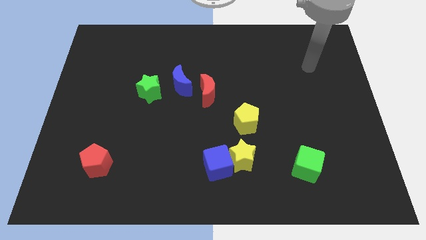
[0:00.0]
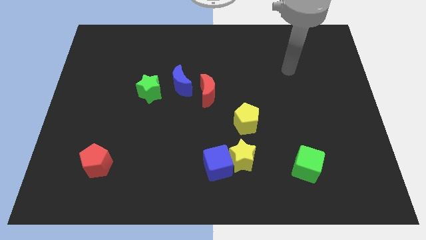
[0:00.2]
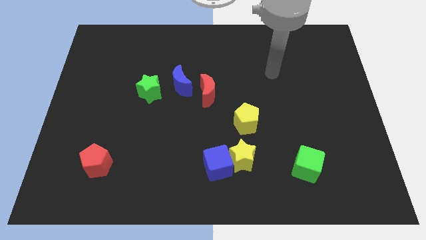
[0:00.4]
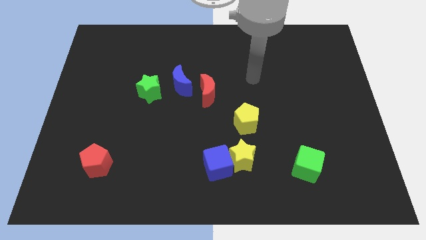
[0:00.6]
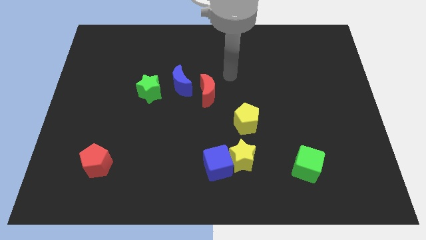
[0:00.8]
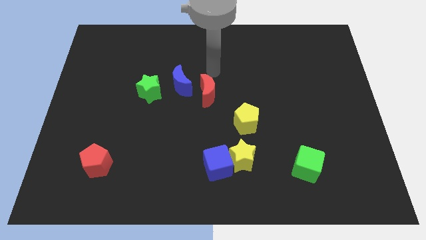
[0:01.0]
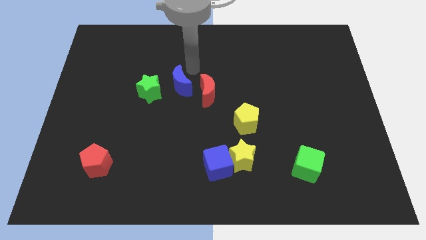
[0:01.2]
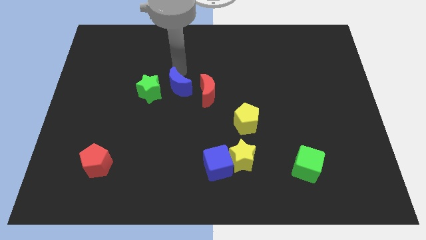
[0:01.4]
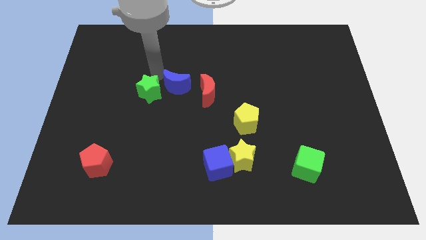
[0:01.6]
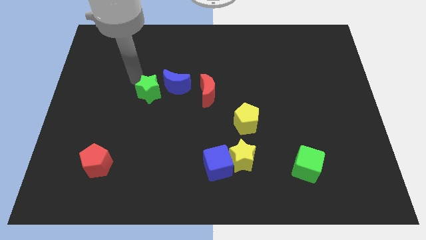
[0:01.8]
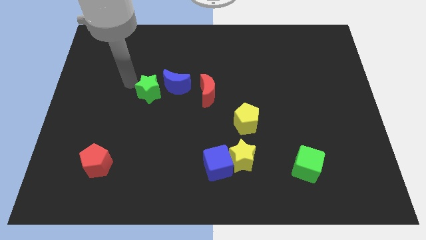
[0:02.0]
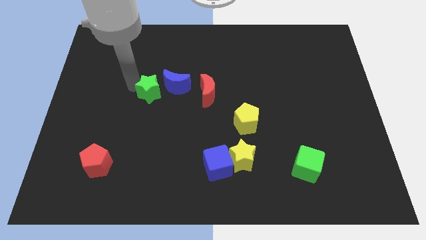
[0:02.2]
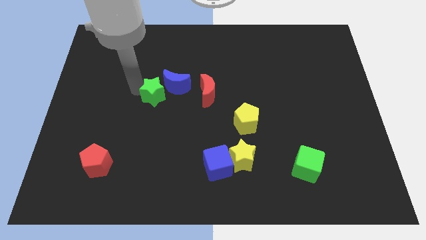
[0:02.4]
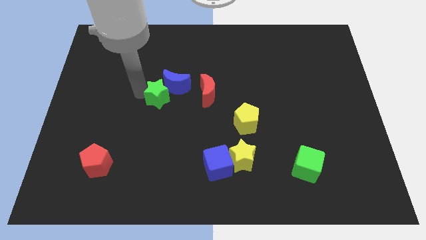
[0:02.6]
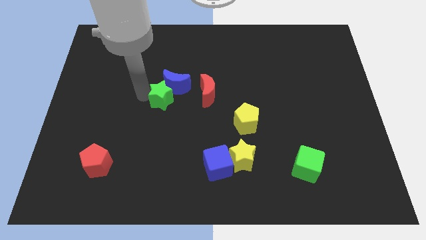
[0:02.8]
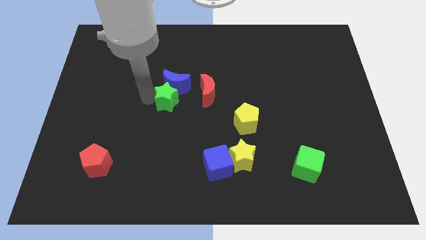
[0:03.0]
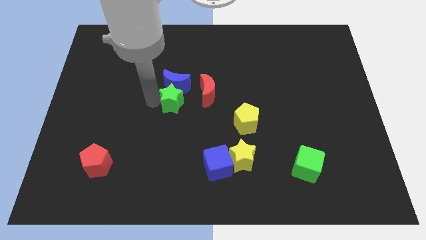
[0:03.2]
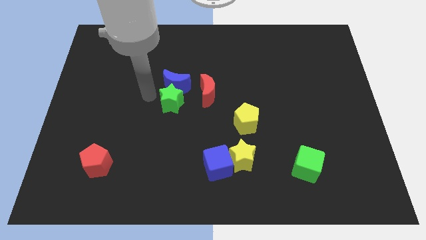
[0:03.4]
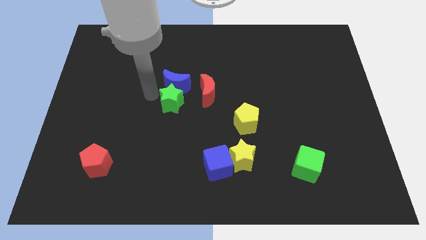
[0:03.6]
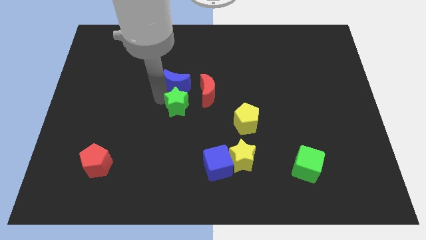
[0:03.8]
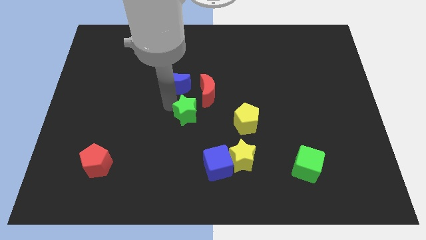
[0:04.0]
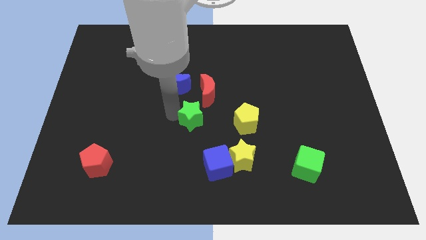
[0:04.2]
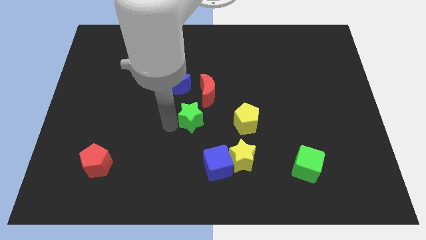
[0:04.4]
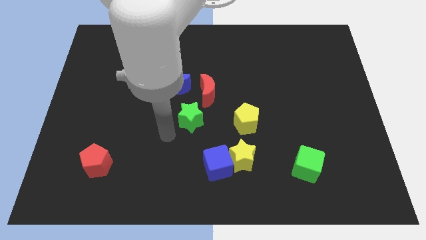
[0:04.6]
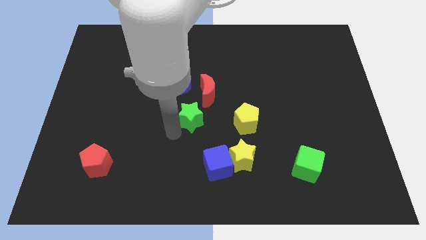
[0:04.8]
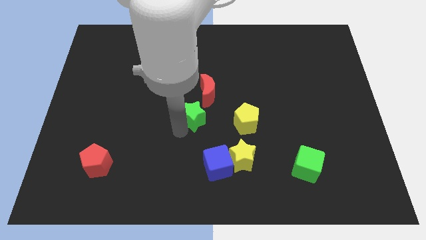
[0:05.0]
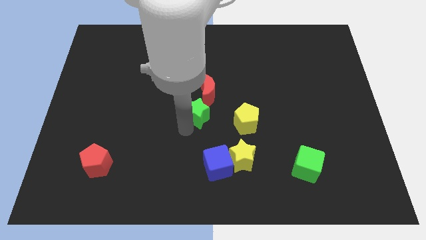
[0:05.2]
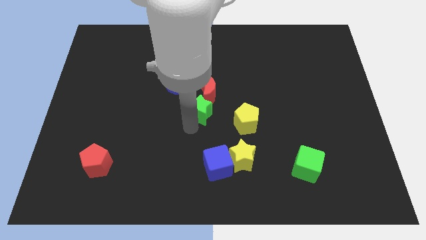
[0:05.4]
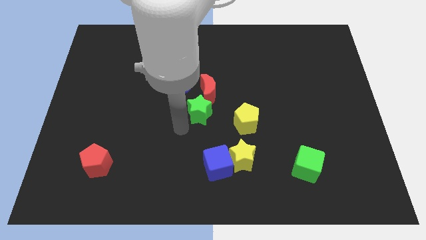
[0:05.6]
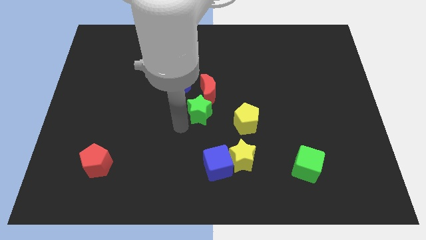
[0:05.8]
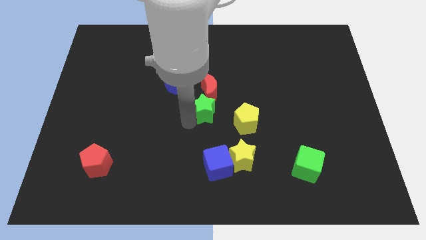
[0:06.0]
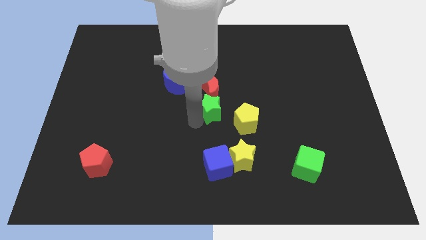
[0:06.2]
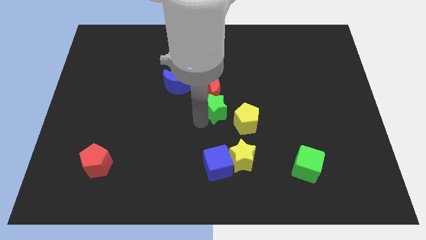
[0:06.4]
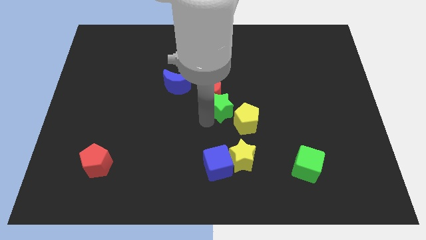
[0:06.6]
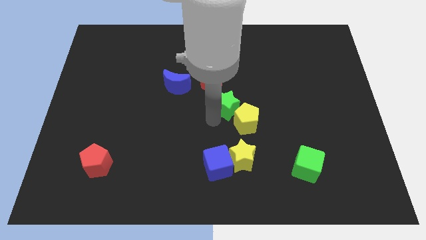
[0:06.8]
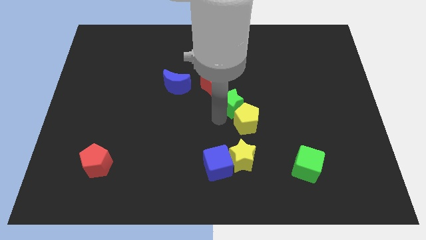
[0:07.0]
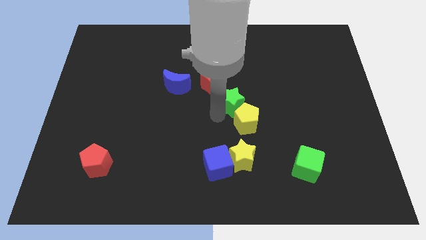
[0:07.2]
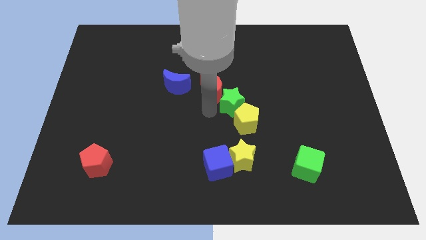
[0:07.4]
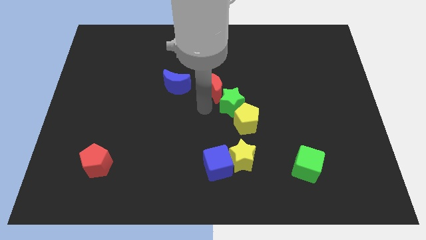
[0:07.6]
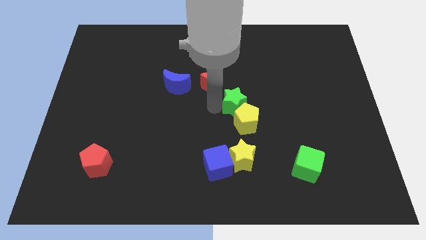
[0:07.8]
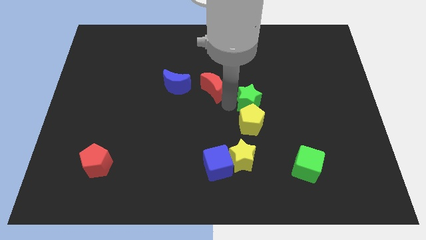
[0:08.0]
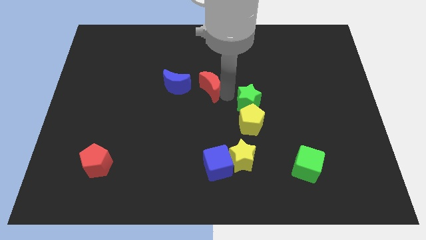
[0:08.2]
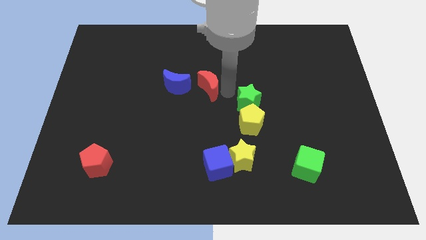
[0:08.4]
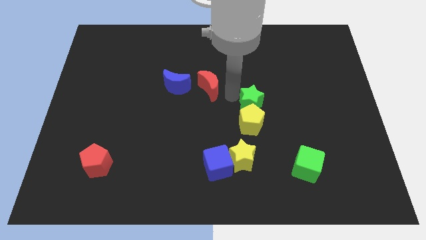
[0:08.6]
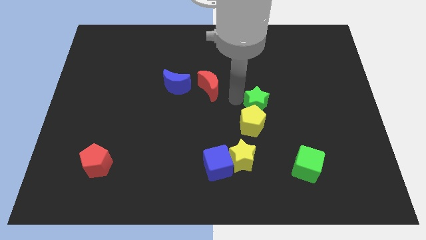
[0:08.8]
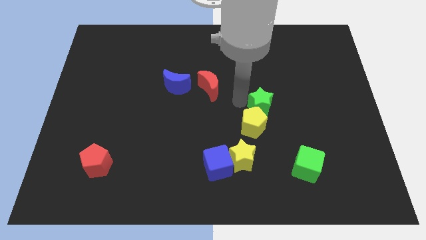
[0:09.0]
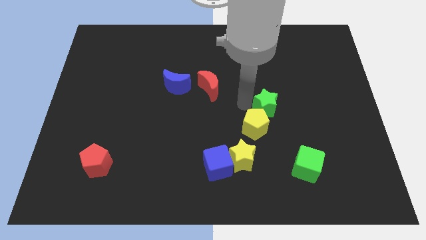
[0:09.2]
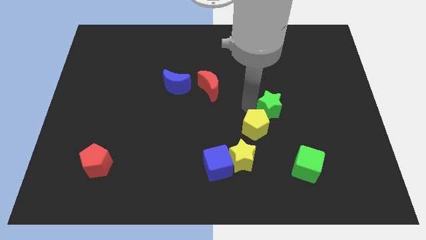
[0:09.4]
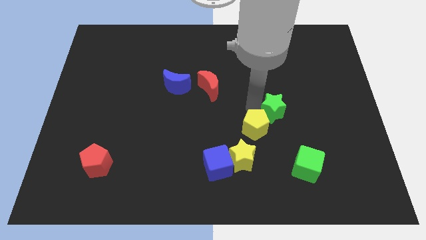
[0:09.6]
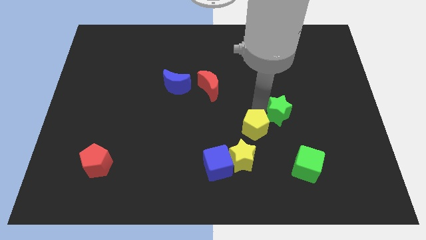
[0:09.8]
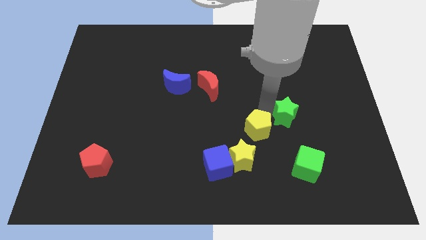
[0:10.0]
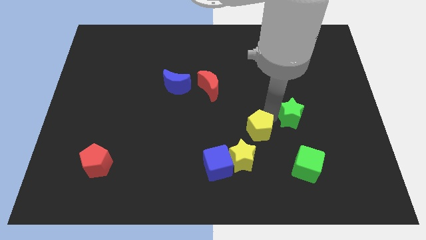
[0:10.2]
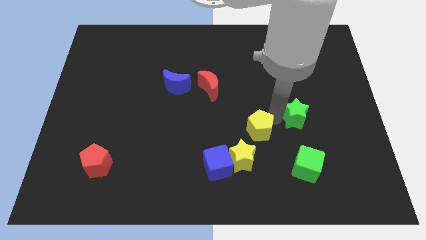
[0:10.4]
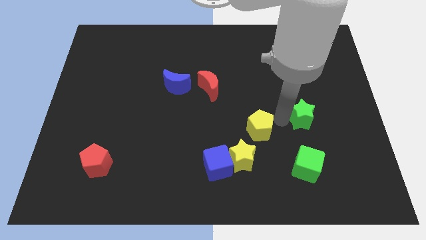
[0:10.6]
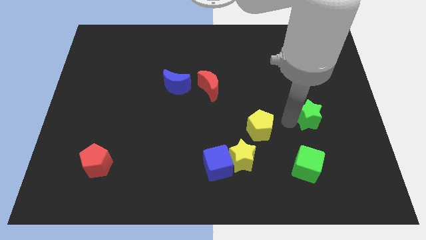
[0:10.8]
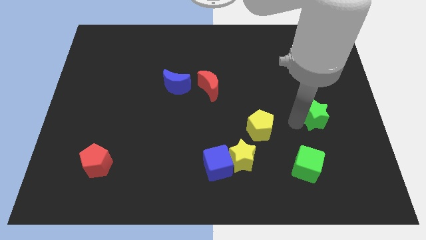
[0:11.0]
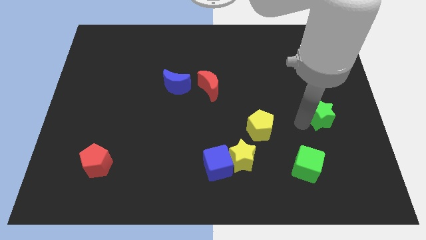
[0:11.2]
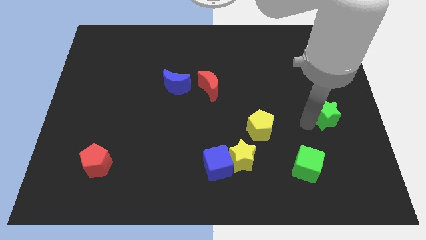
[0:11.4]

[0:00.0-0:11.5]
push the green star to the right side
